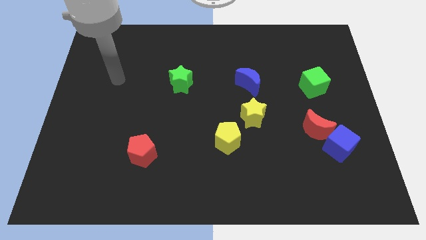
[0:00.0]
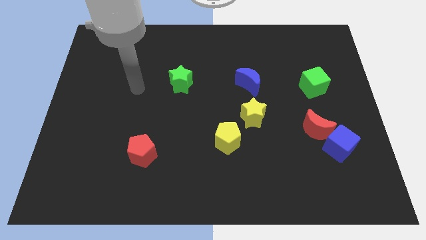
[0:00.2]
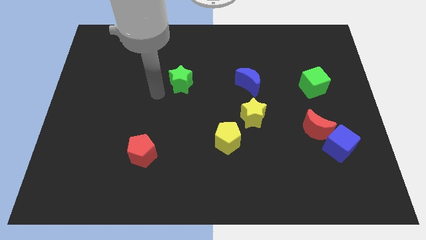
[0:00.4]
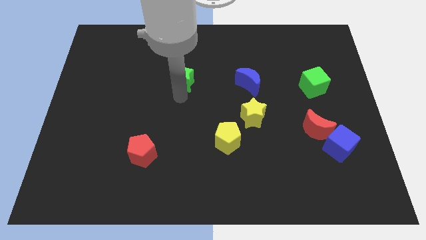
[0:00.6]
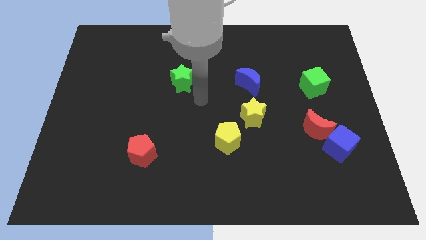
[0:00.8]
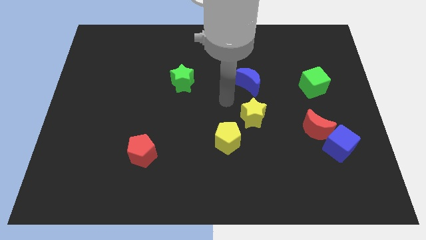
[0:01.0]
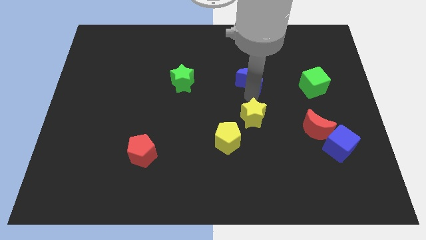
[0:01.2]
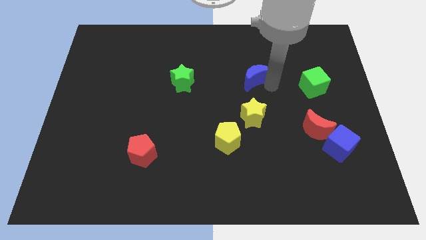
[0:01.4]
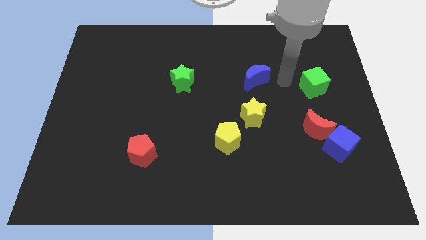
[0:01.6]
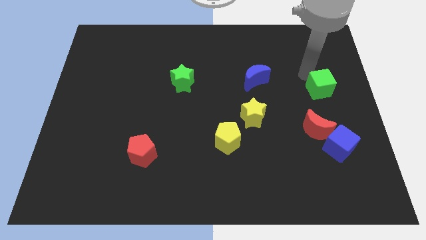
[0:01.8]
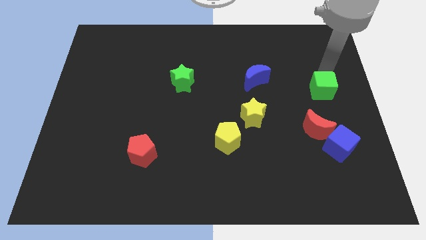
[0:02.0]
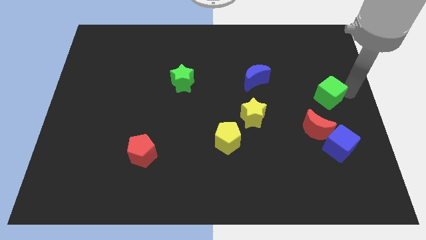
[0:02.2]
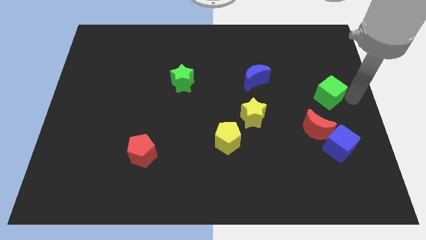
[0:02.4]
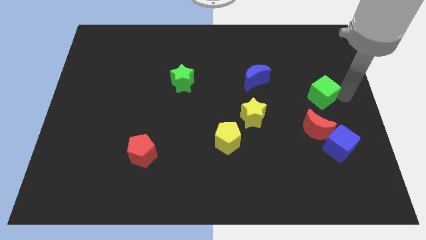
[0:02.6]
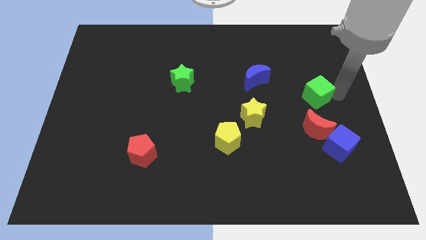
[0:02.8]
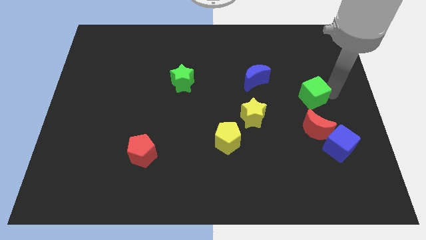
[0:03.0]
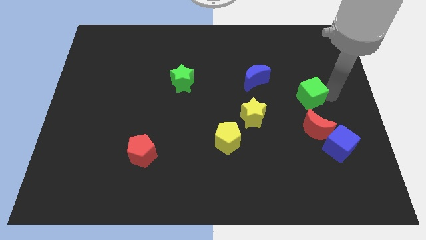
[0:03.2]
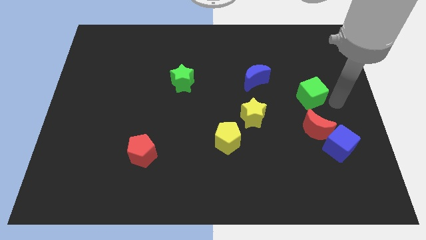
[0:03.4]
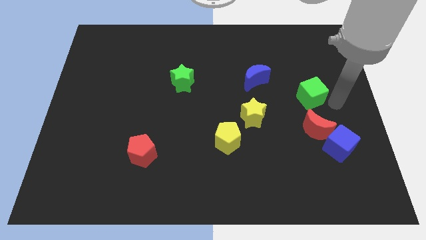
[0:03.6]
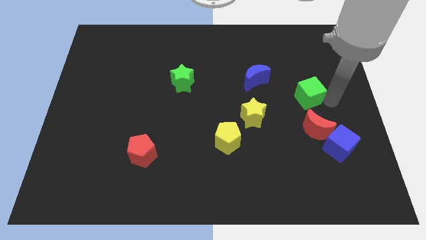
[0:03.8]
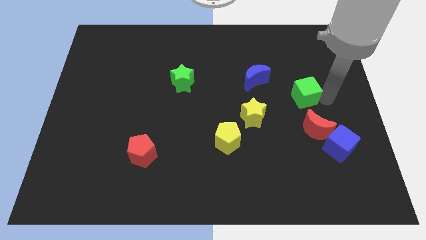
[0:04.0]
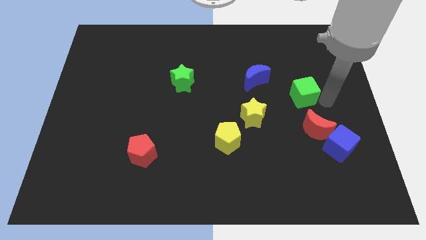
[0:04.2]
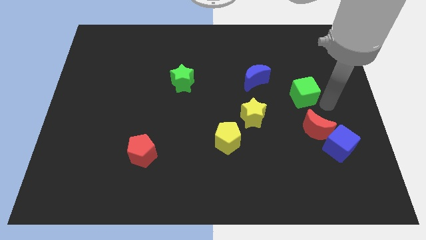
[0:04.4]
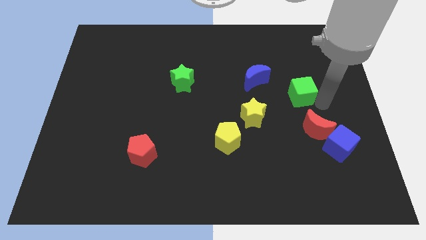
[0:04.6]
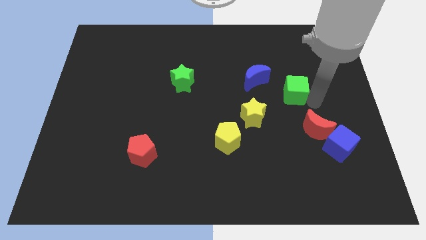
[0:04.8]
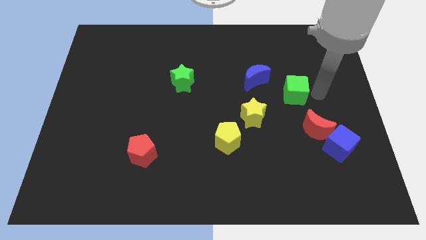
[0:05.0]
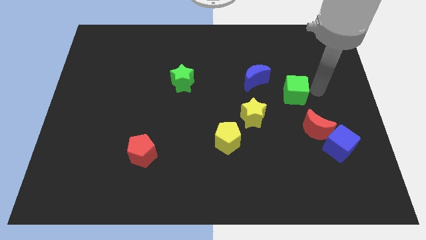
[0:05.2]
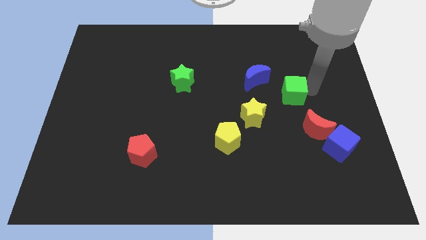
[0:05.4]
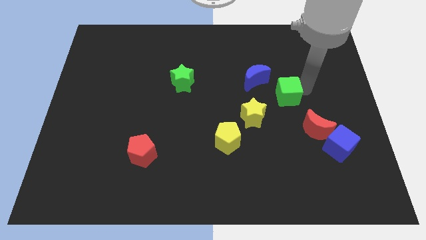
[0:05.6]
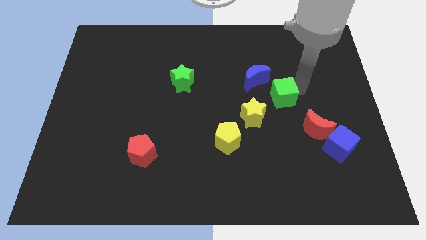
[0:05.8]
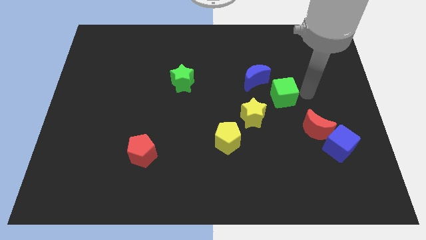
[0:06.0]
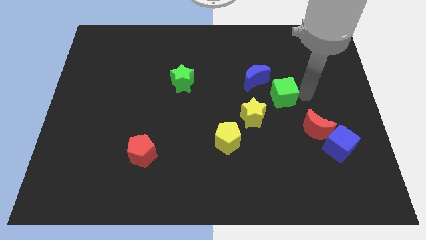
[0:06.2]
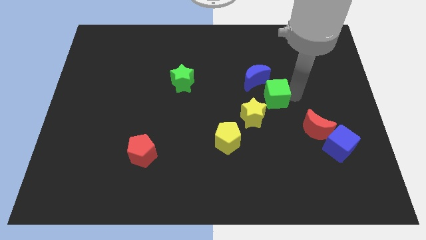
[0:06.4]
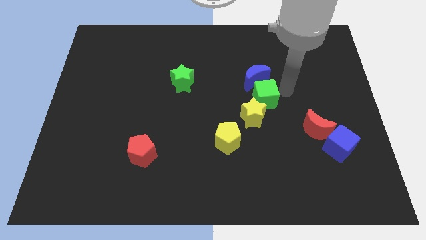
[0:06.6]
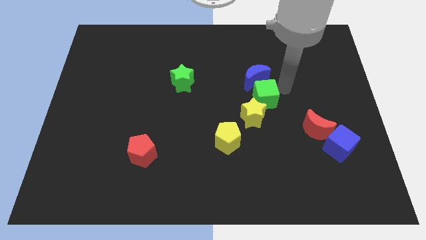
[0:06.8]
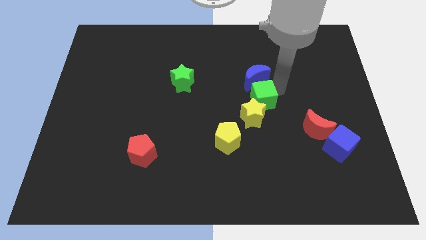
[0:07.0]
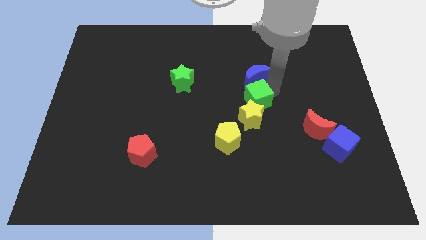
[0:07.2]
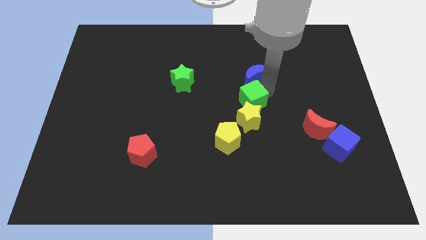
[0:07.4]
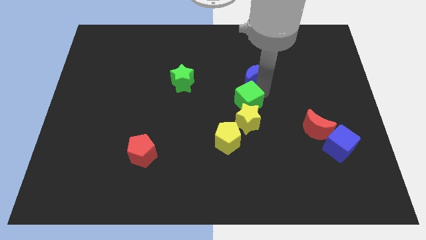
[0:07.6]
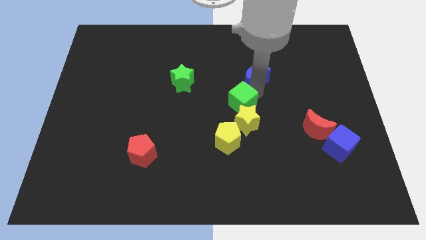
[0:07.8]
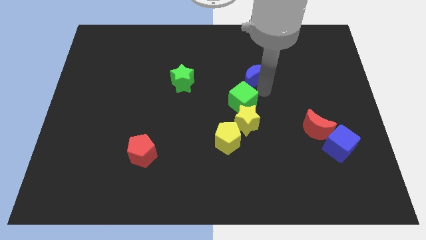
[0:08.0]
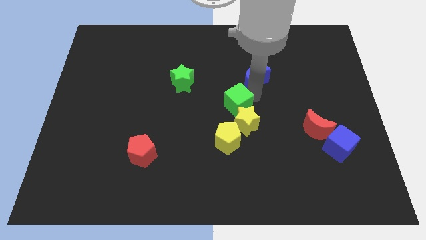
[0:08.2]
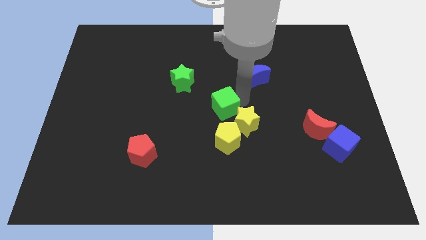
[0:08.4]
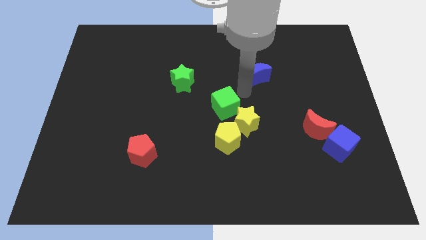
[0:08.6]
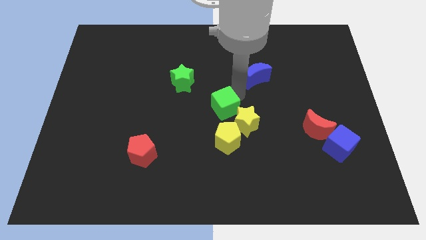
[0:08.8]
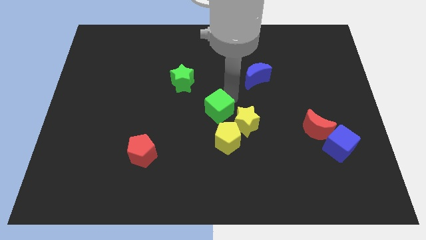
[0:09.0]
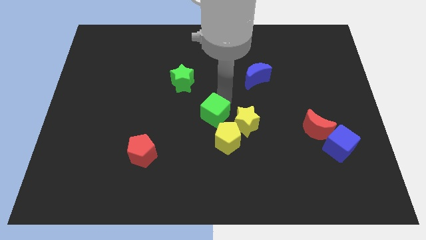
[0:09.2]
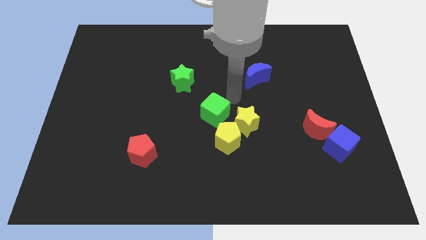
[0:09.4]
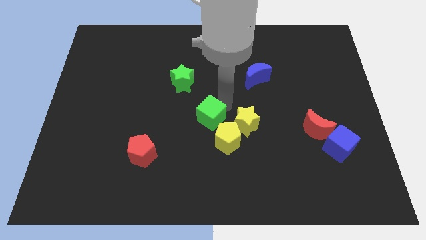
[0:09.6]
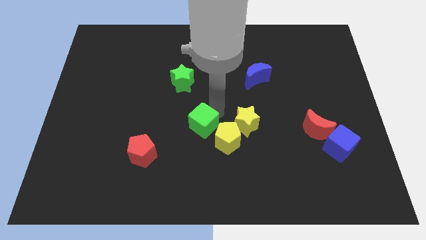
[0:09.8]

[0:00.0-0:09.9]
push the green cube to the left of the yellow pentagon

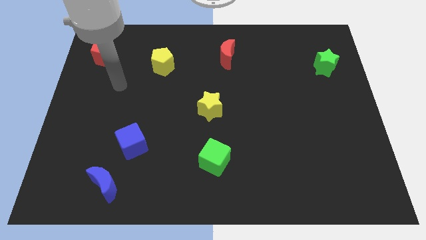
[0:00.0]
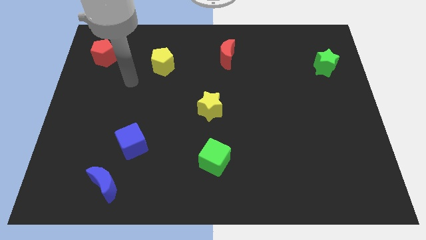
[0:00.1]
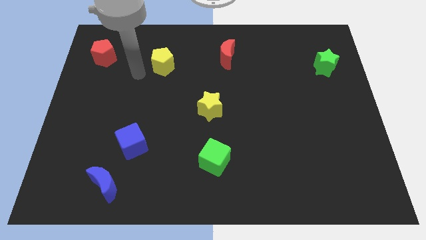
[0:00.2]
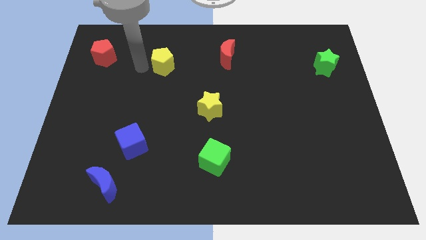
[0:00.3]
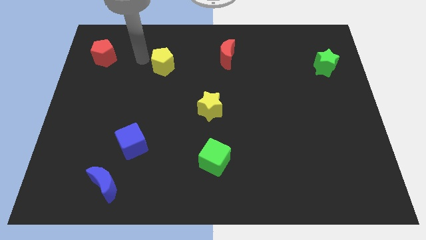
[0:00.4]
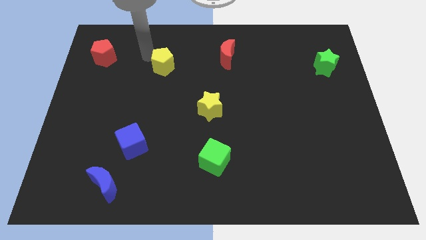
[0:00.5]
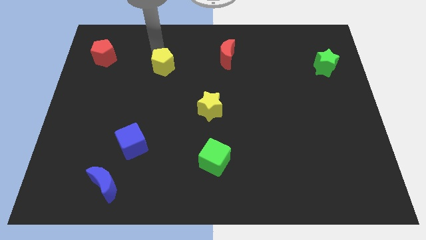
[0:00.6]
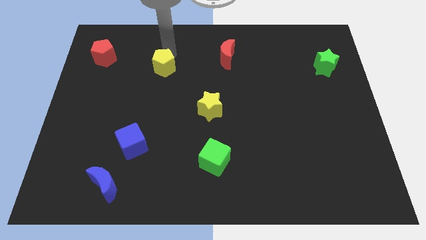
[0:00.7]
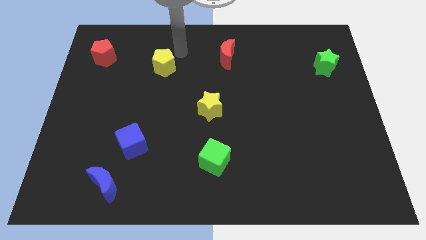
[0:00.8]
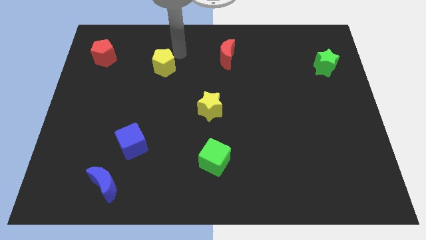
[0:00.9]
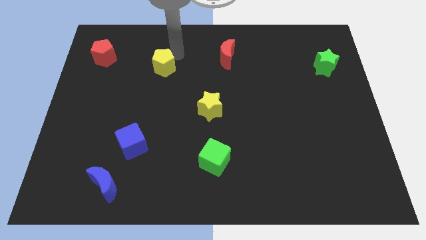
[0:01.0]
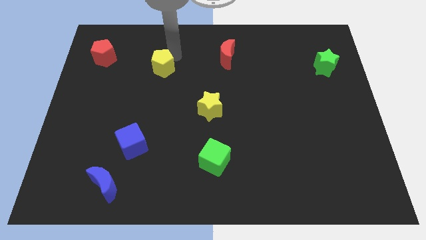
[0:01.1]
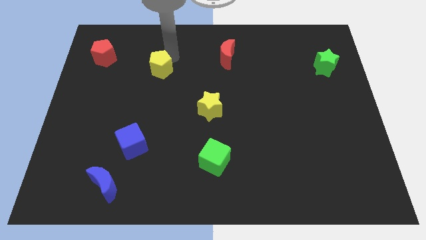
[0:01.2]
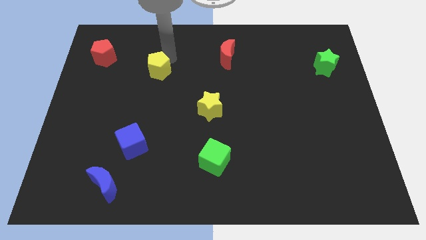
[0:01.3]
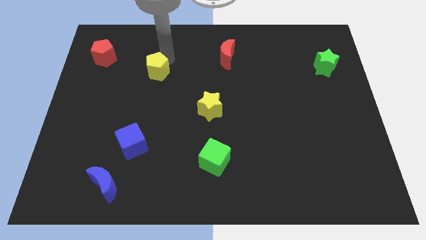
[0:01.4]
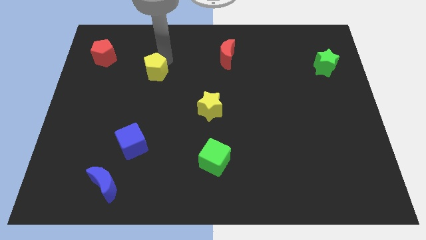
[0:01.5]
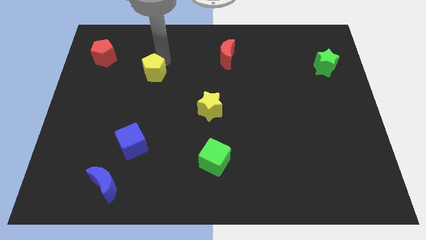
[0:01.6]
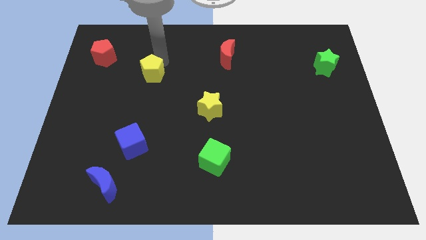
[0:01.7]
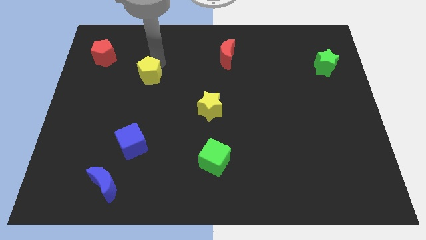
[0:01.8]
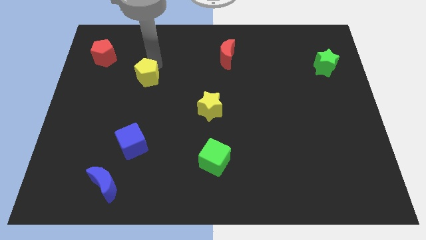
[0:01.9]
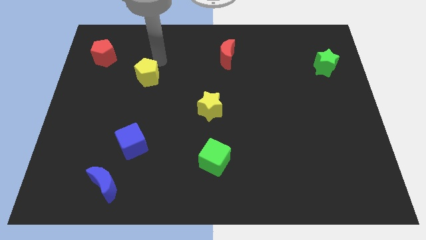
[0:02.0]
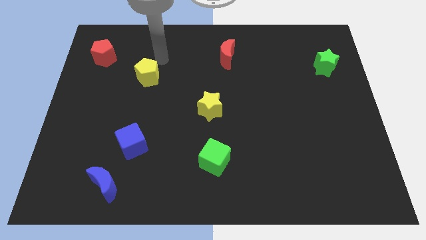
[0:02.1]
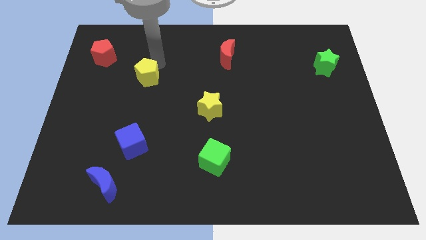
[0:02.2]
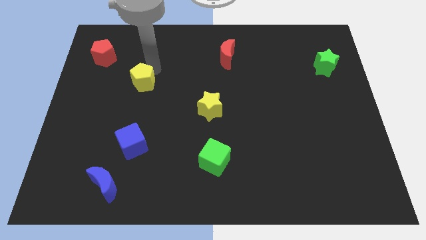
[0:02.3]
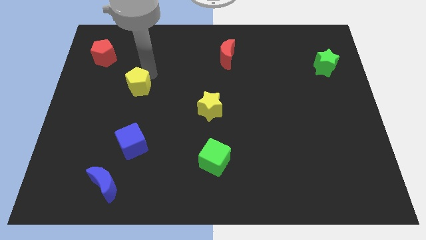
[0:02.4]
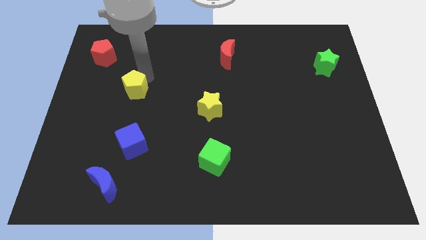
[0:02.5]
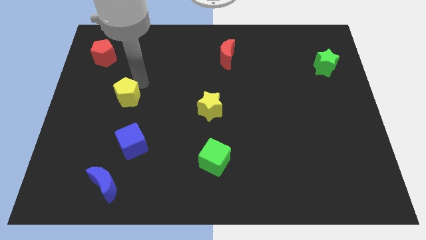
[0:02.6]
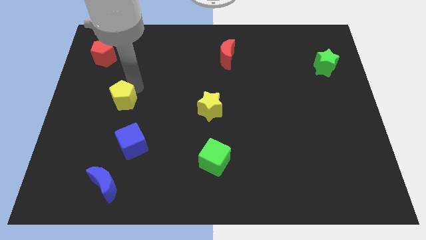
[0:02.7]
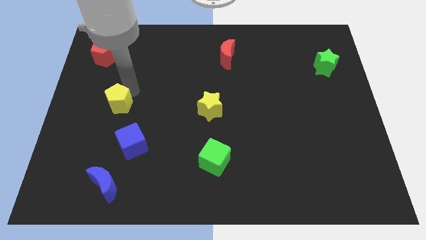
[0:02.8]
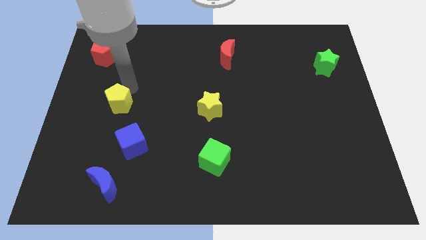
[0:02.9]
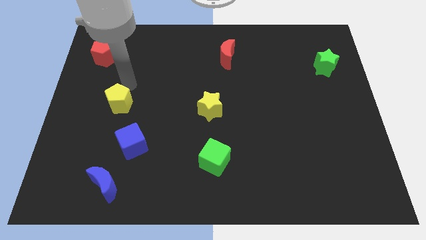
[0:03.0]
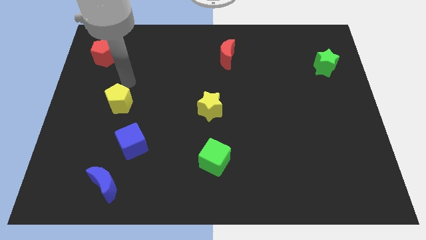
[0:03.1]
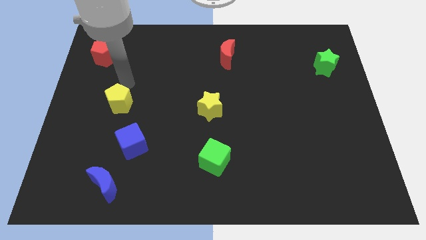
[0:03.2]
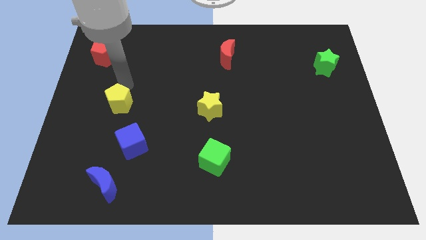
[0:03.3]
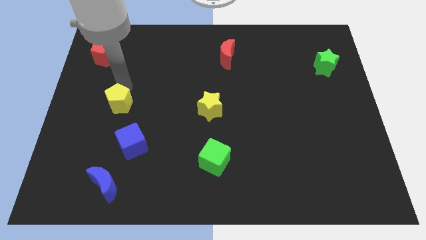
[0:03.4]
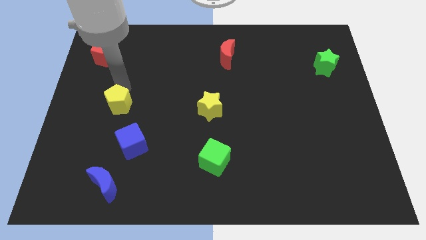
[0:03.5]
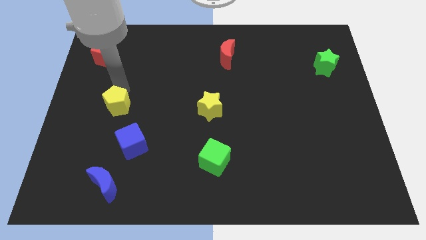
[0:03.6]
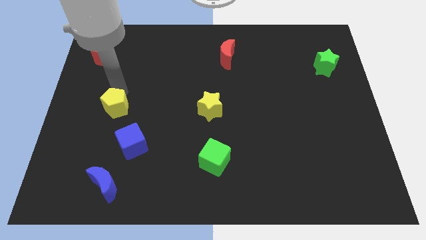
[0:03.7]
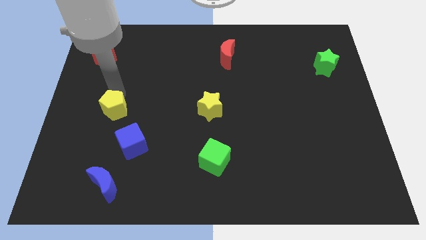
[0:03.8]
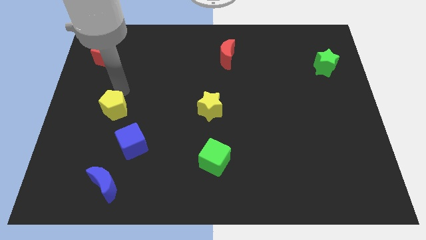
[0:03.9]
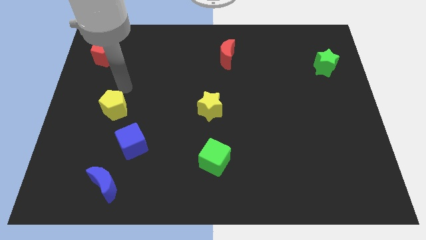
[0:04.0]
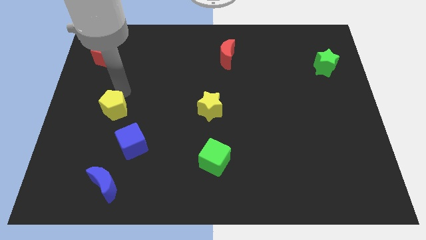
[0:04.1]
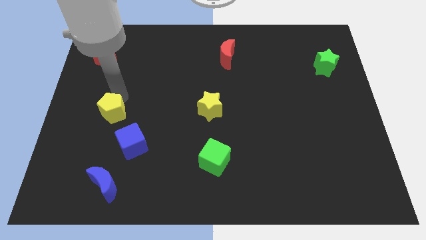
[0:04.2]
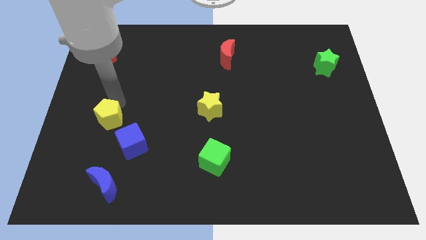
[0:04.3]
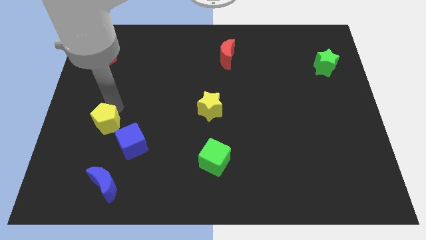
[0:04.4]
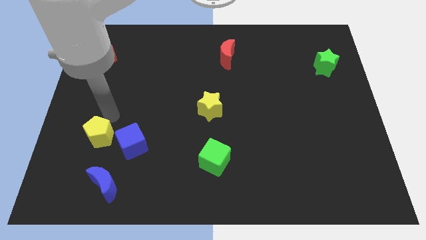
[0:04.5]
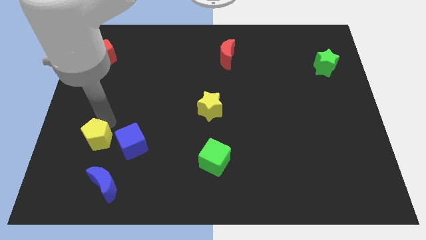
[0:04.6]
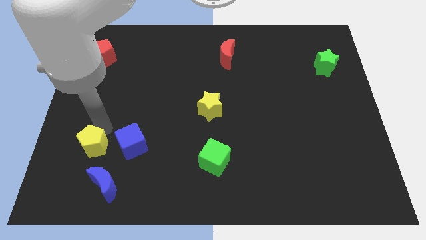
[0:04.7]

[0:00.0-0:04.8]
slide the yellow pentagon to the top left of the blue moon
